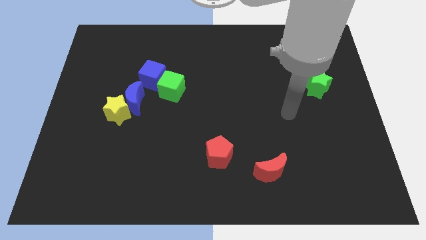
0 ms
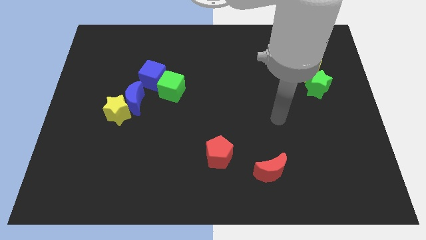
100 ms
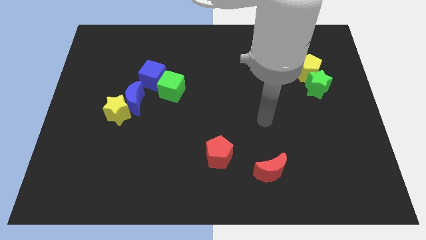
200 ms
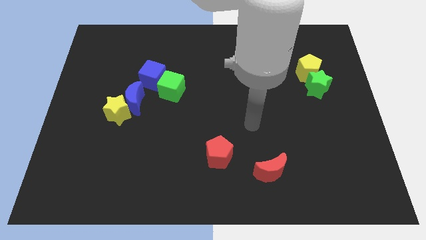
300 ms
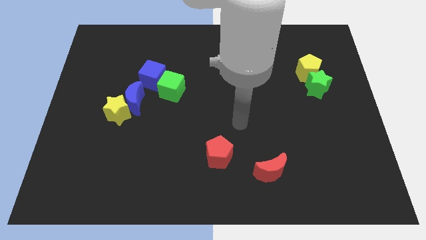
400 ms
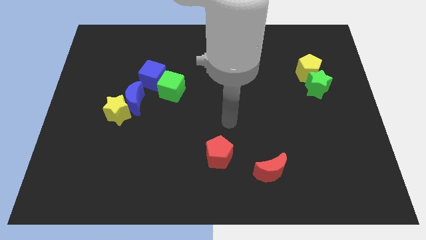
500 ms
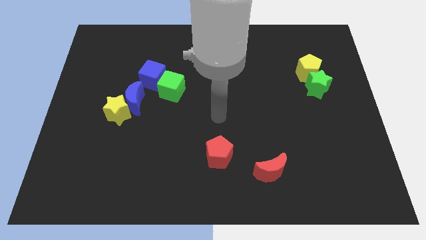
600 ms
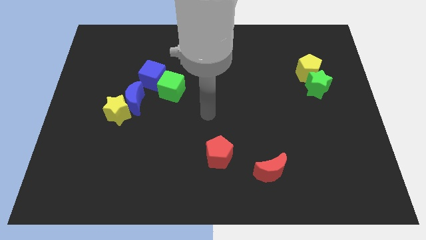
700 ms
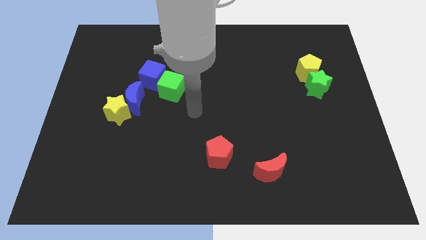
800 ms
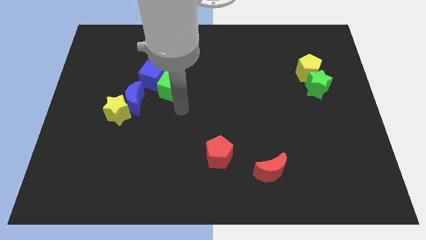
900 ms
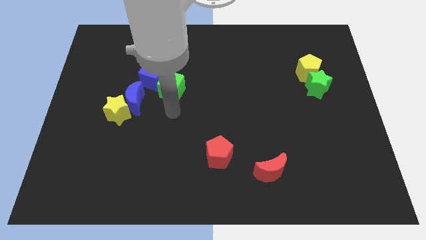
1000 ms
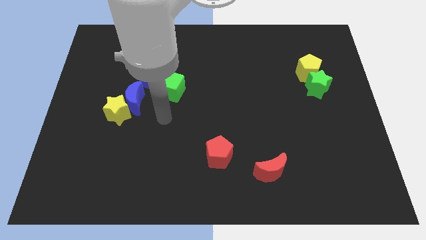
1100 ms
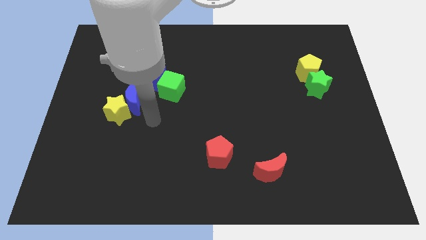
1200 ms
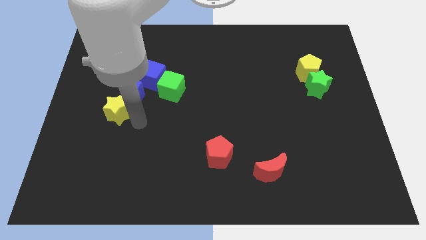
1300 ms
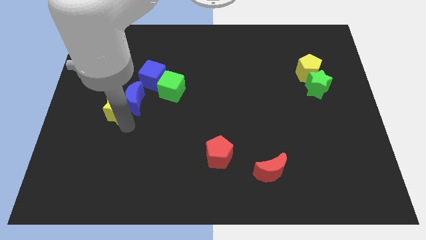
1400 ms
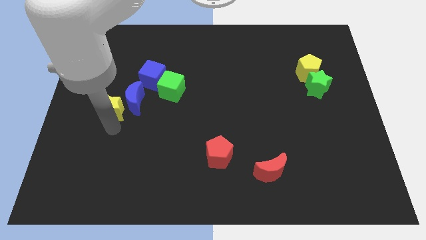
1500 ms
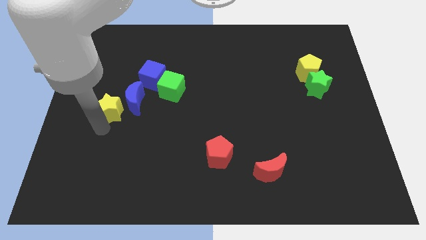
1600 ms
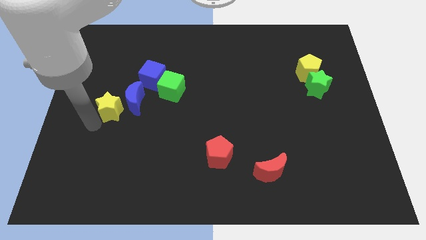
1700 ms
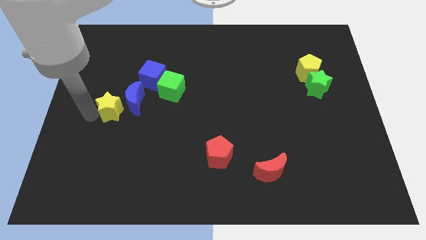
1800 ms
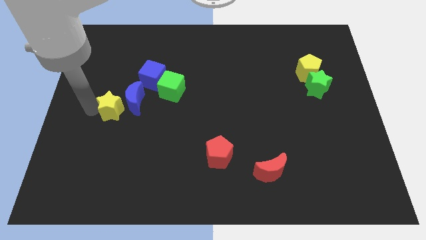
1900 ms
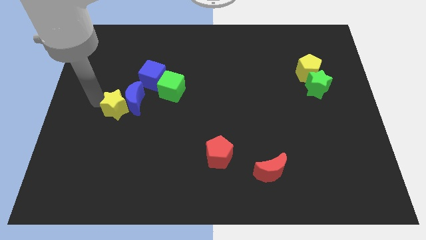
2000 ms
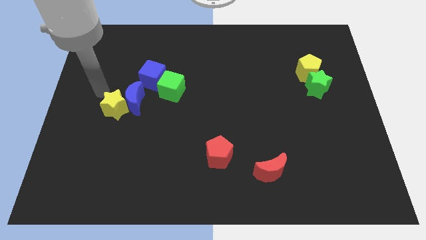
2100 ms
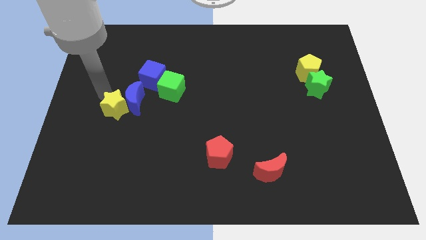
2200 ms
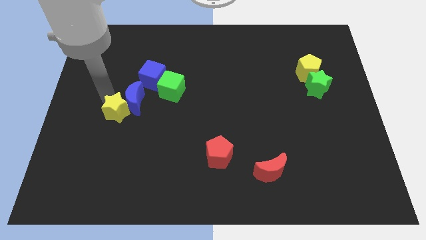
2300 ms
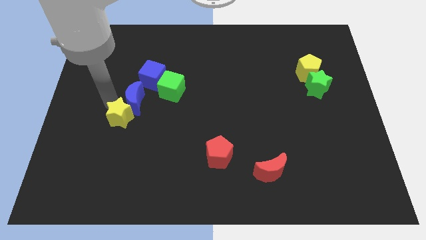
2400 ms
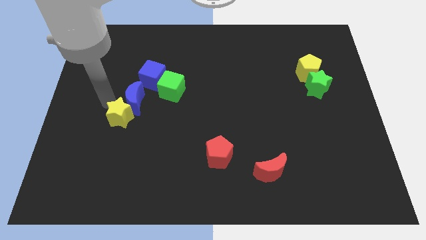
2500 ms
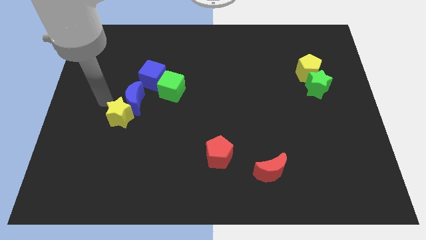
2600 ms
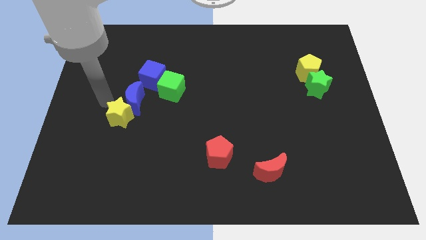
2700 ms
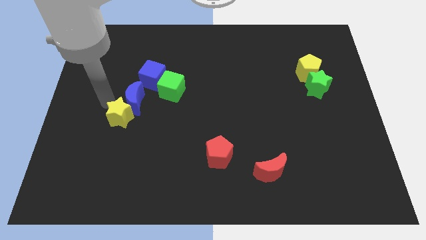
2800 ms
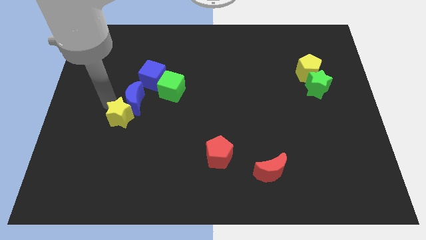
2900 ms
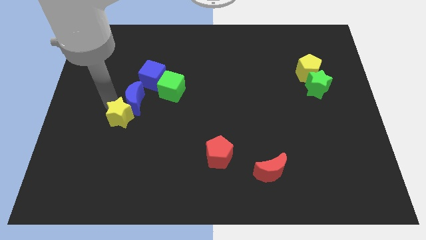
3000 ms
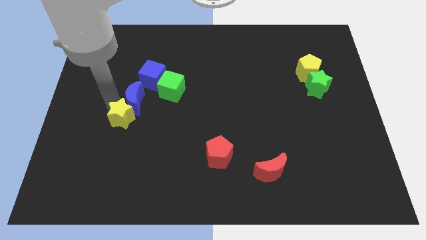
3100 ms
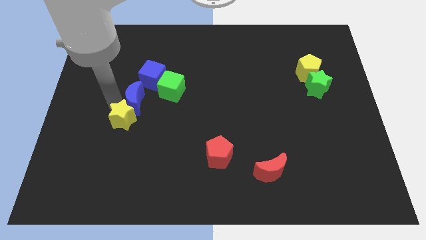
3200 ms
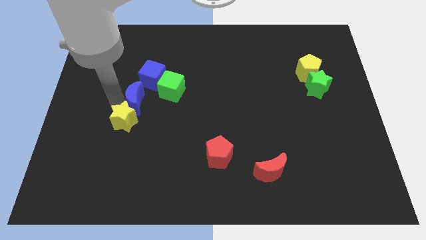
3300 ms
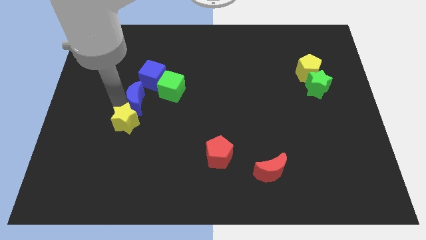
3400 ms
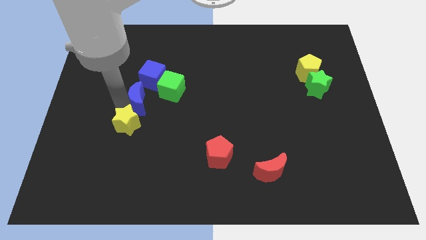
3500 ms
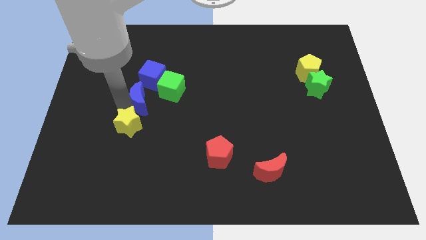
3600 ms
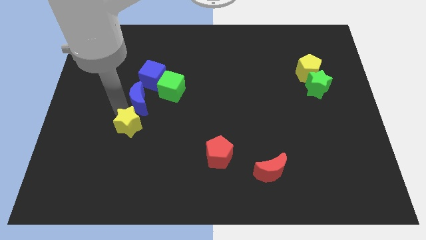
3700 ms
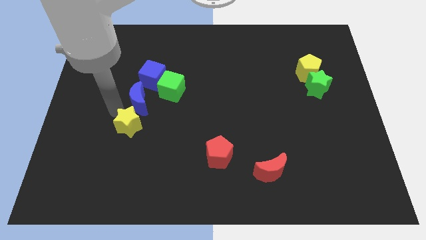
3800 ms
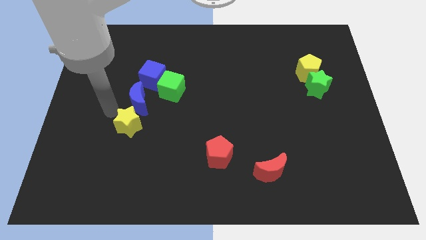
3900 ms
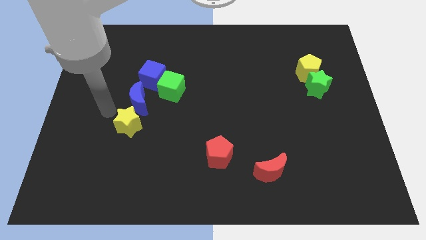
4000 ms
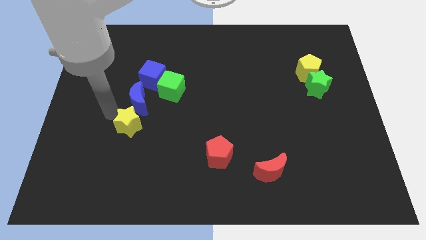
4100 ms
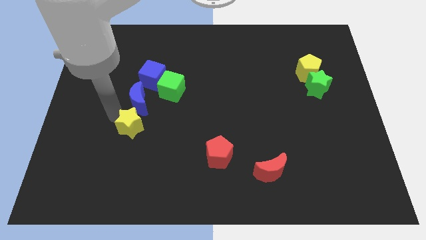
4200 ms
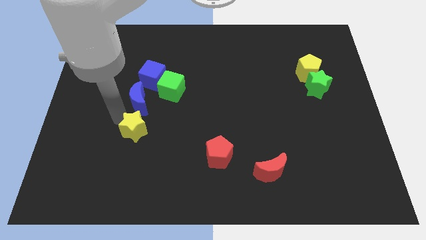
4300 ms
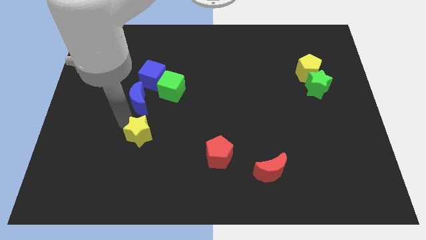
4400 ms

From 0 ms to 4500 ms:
move the yellow star down and then to the right a little

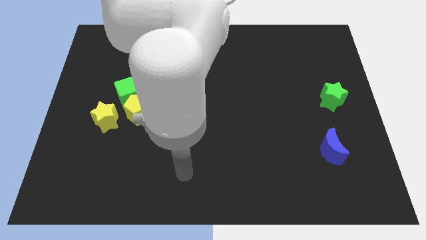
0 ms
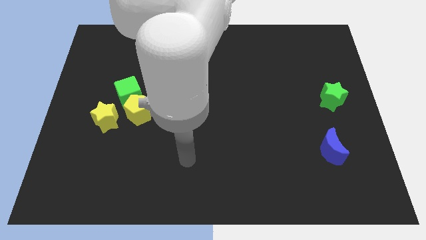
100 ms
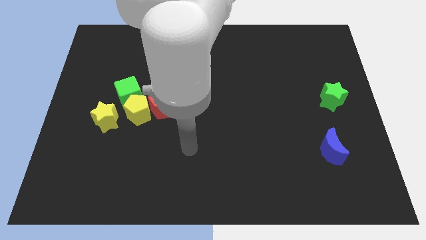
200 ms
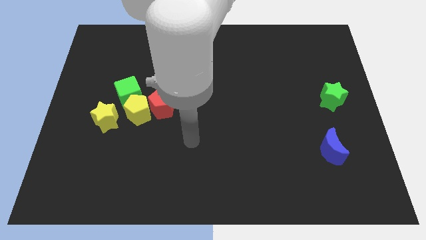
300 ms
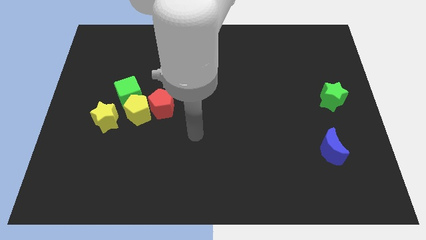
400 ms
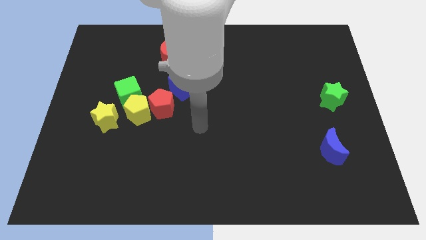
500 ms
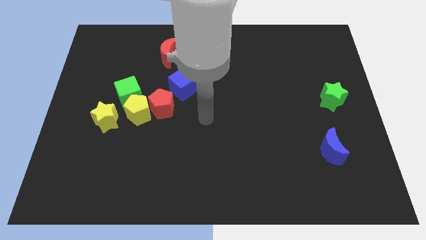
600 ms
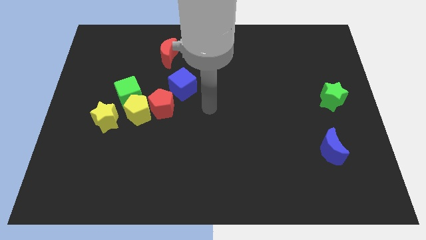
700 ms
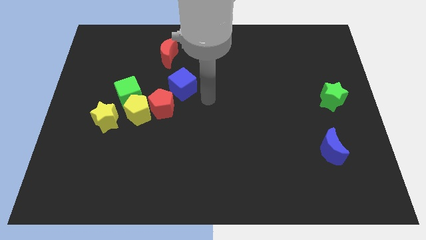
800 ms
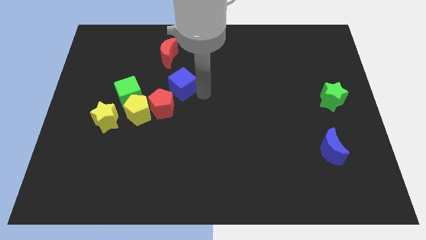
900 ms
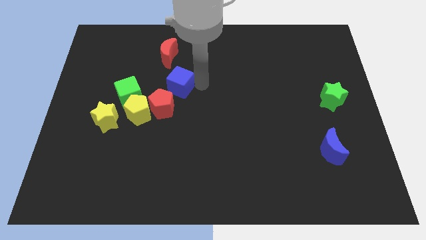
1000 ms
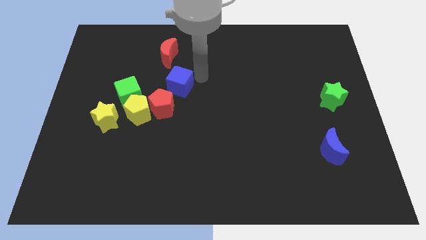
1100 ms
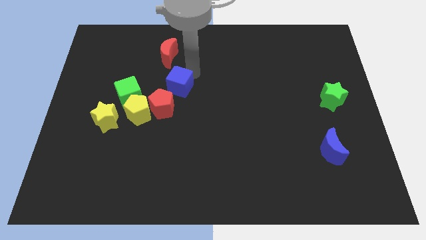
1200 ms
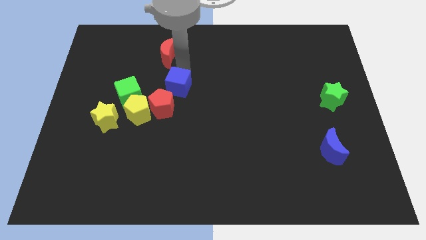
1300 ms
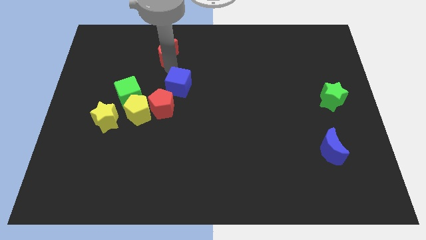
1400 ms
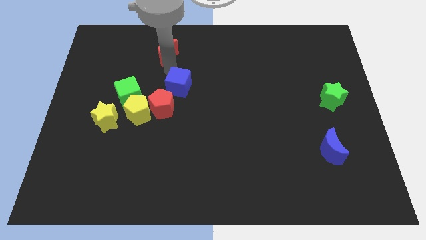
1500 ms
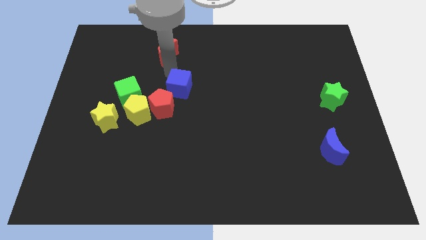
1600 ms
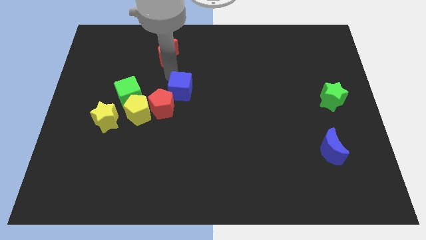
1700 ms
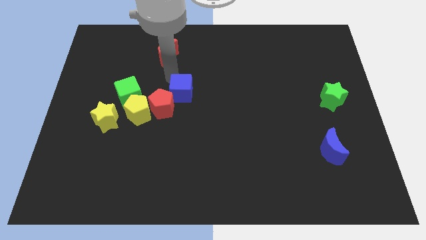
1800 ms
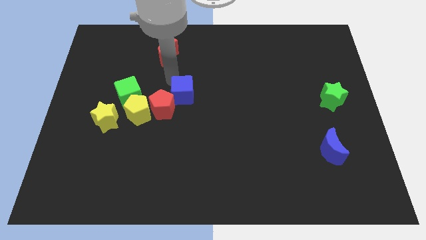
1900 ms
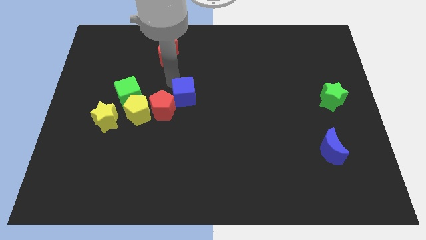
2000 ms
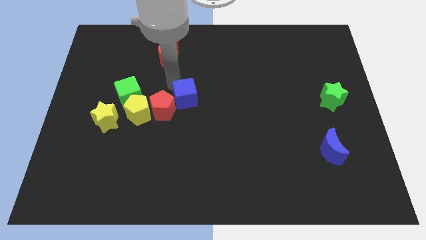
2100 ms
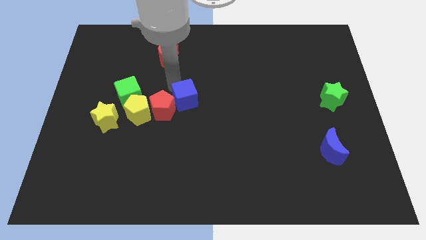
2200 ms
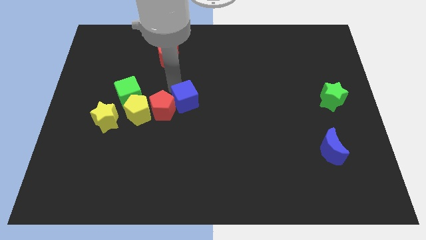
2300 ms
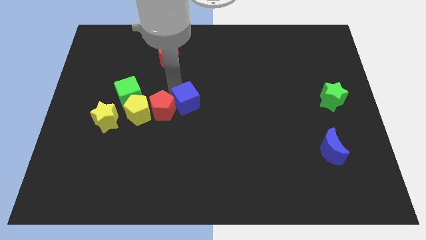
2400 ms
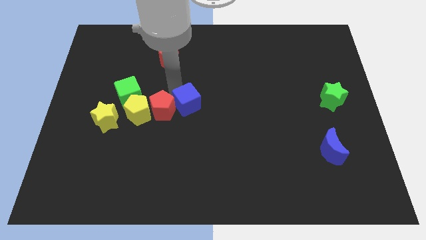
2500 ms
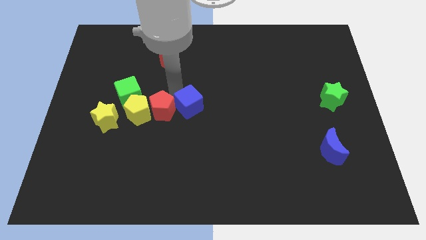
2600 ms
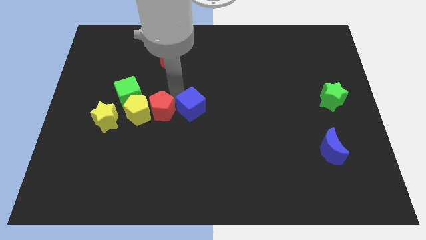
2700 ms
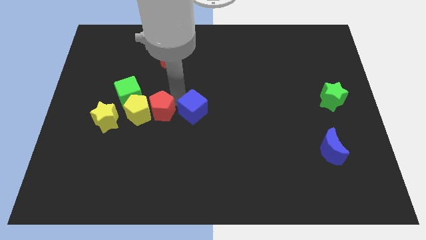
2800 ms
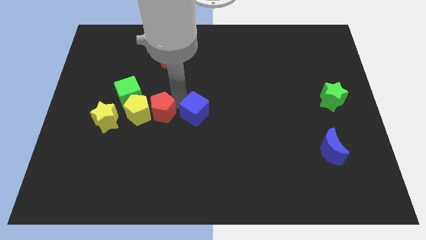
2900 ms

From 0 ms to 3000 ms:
slightly push the blue cube down and right

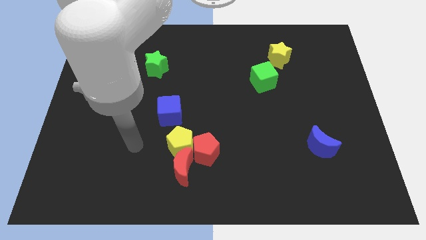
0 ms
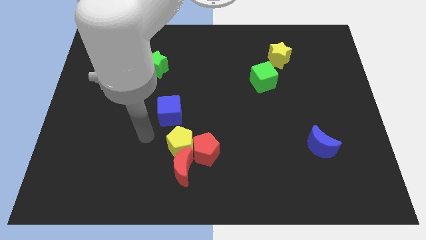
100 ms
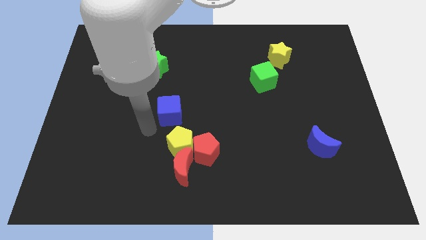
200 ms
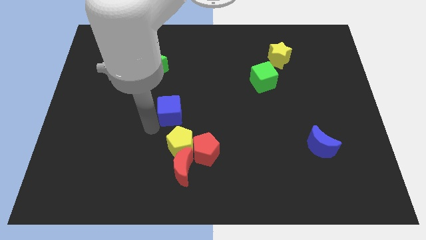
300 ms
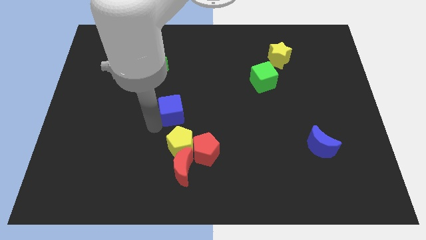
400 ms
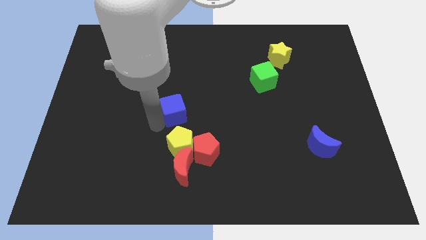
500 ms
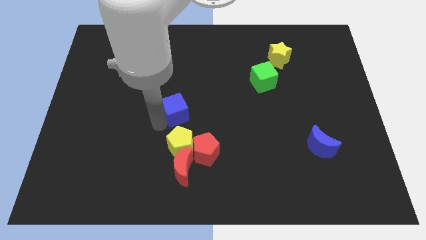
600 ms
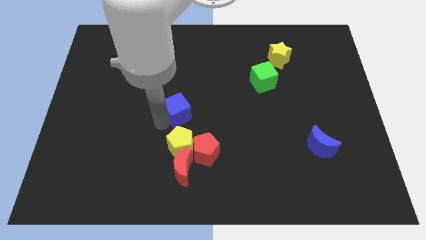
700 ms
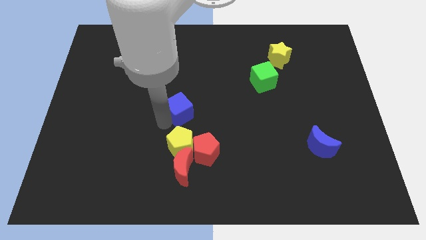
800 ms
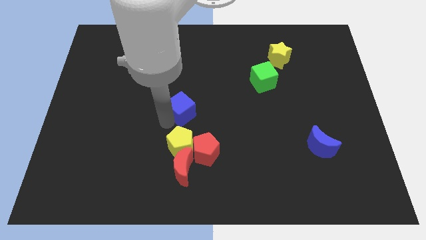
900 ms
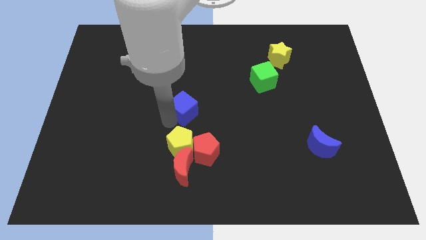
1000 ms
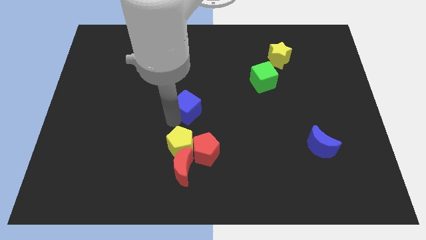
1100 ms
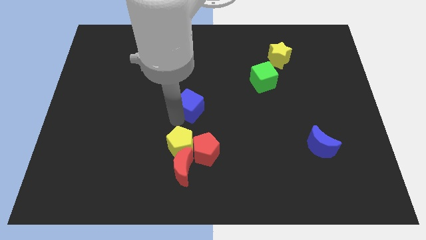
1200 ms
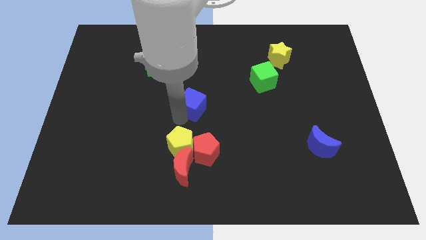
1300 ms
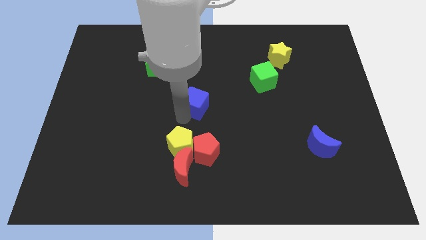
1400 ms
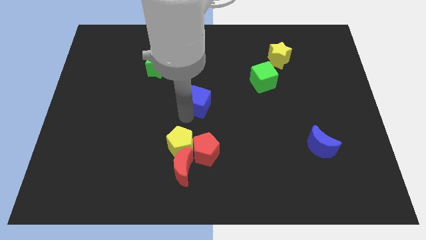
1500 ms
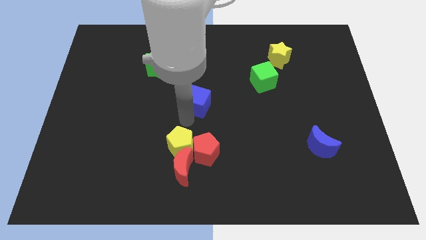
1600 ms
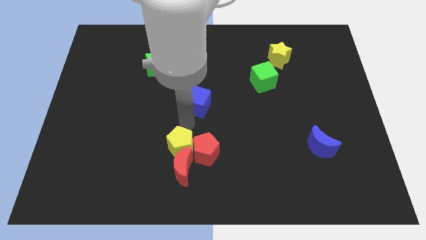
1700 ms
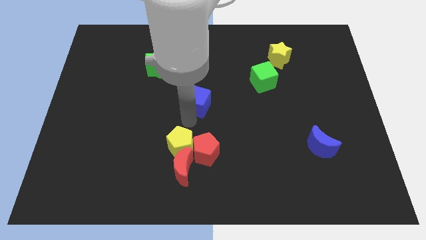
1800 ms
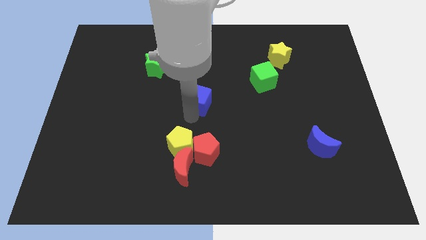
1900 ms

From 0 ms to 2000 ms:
push the blue cube upwards and right a little
